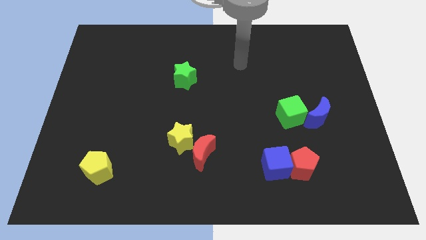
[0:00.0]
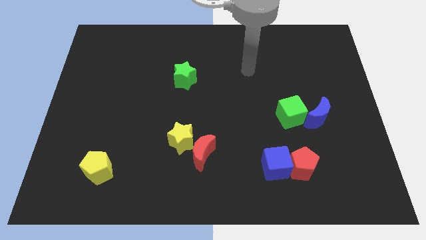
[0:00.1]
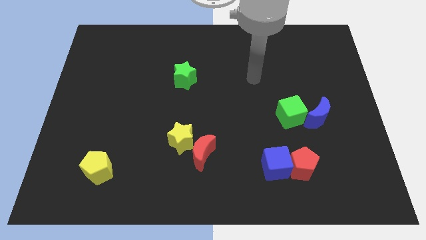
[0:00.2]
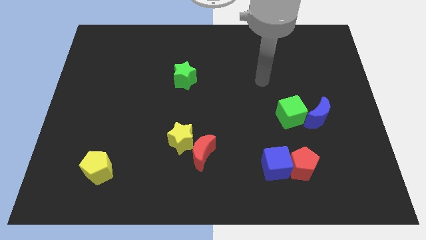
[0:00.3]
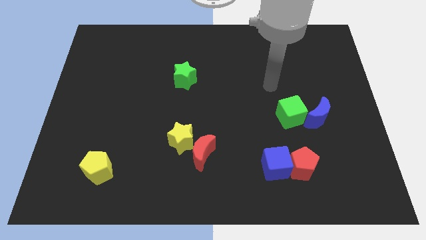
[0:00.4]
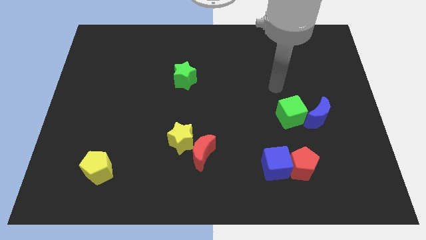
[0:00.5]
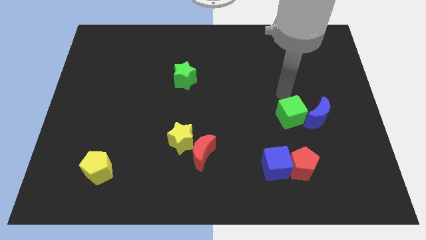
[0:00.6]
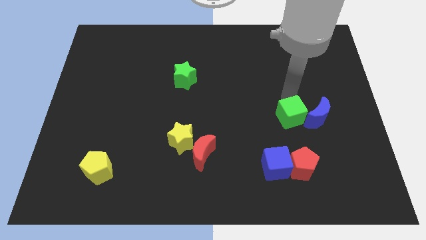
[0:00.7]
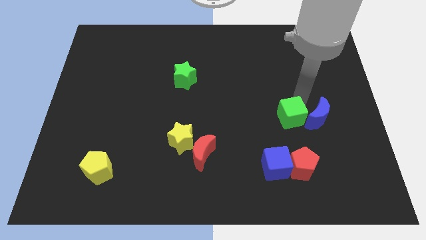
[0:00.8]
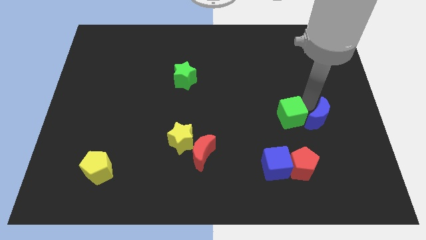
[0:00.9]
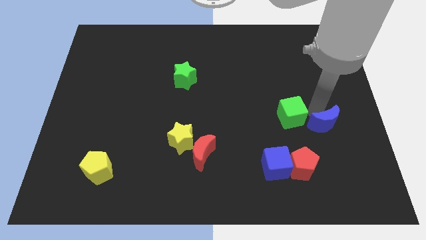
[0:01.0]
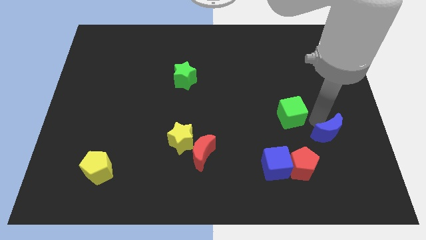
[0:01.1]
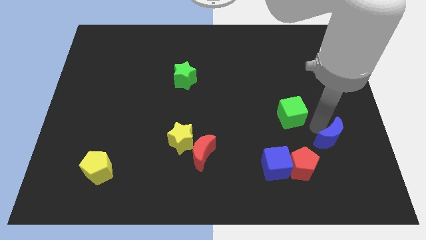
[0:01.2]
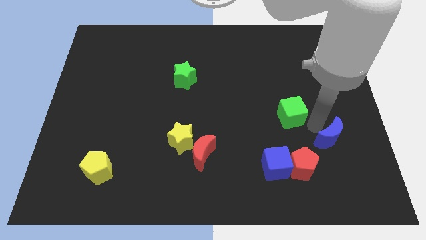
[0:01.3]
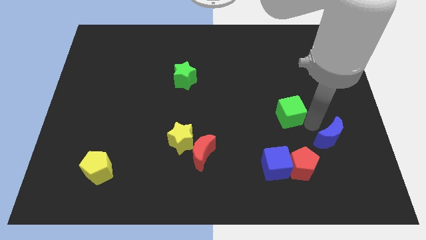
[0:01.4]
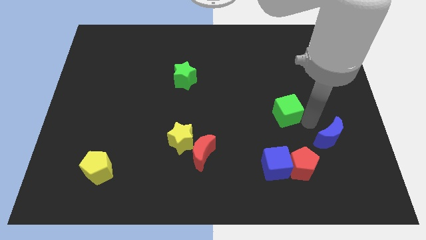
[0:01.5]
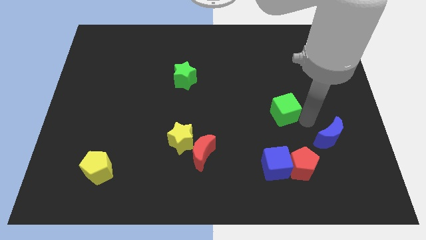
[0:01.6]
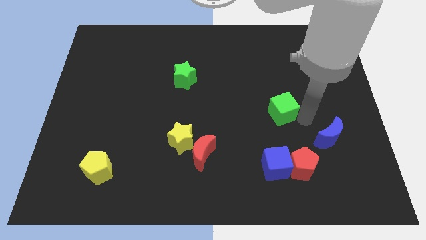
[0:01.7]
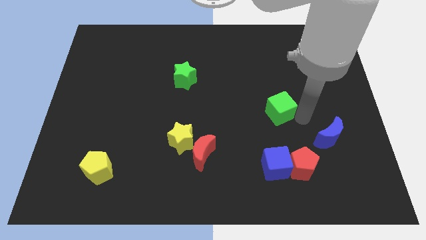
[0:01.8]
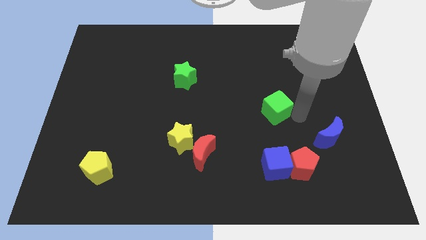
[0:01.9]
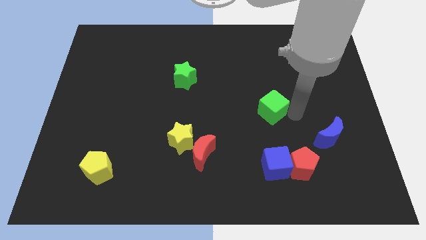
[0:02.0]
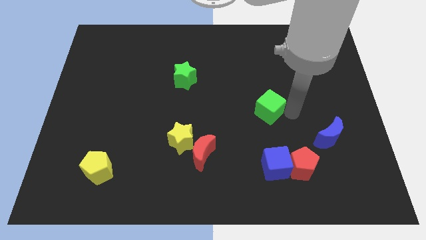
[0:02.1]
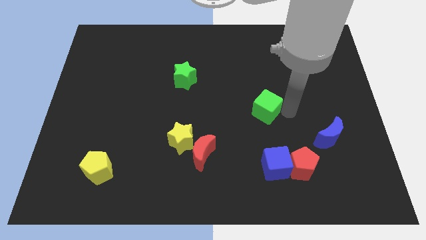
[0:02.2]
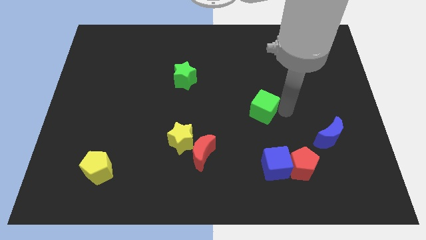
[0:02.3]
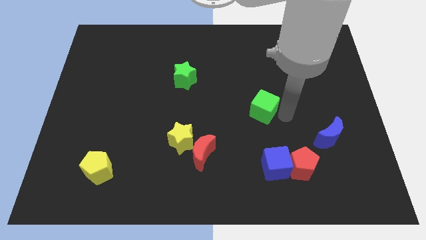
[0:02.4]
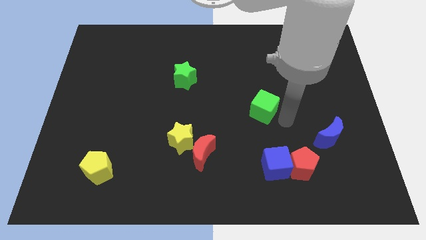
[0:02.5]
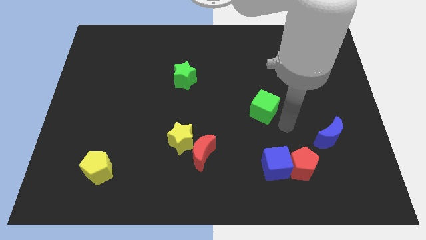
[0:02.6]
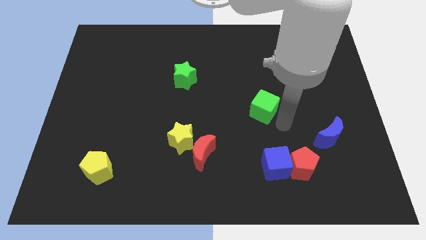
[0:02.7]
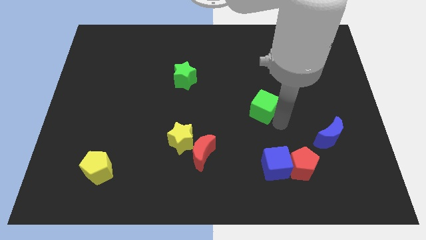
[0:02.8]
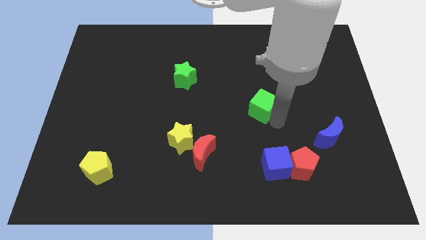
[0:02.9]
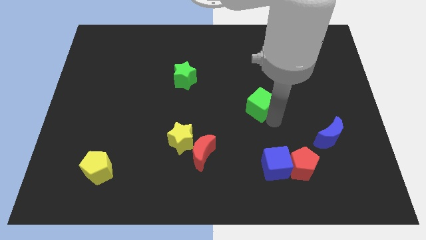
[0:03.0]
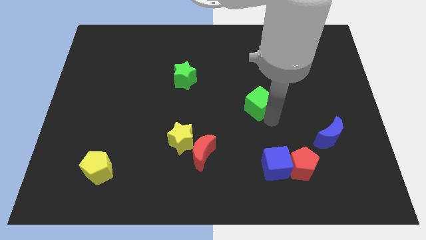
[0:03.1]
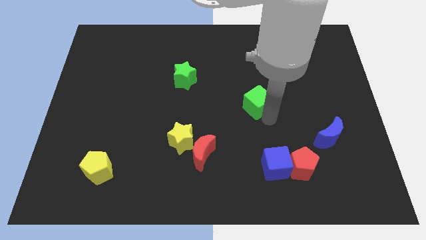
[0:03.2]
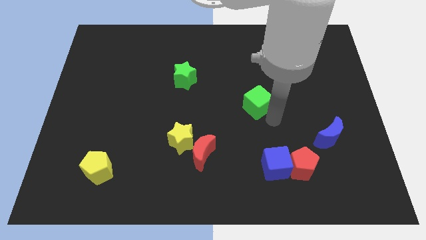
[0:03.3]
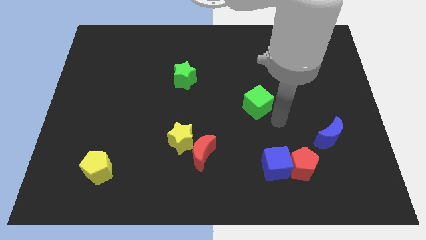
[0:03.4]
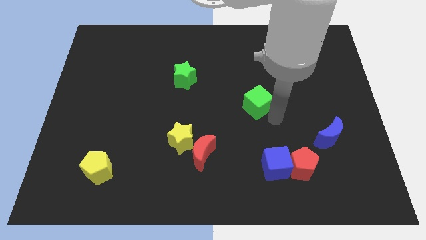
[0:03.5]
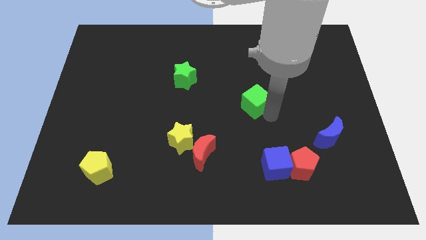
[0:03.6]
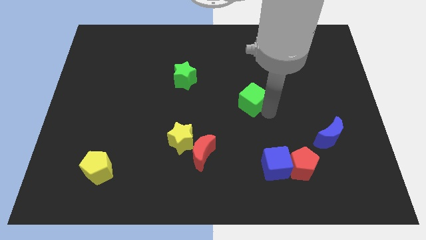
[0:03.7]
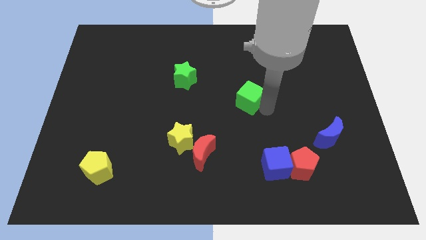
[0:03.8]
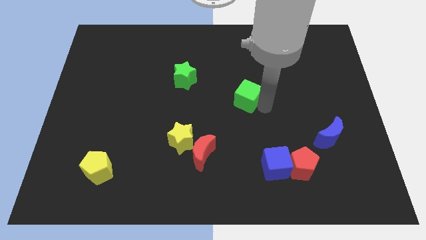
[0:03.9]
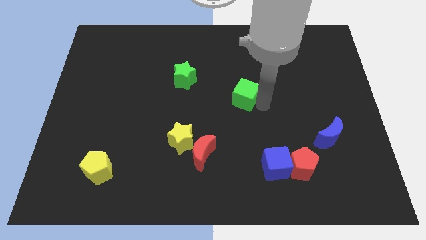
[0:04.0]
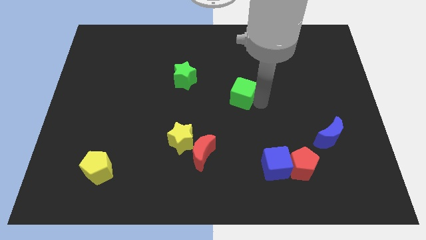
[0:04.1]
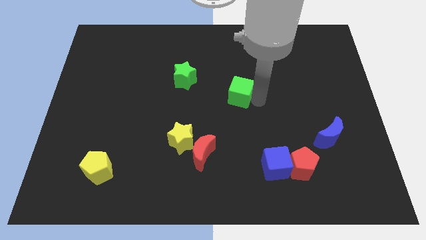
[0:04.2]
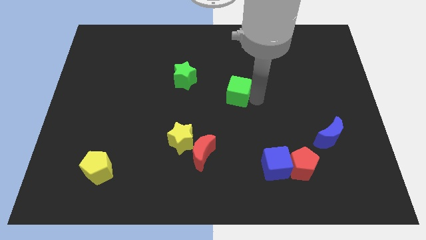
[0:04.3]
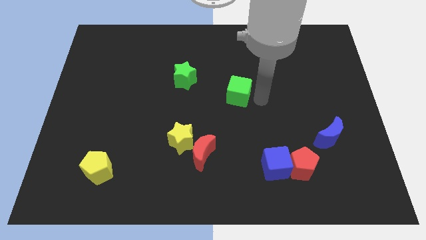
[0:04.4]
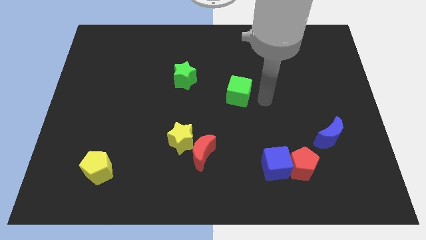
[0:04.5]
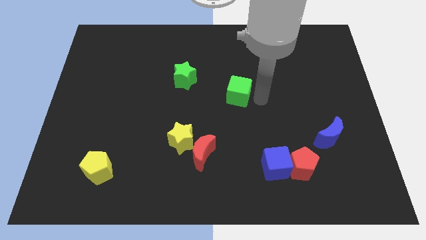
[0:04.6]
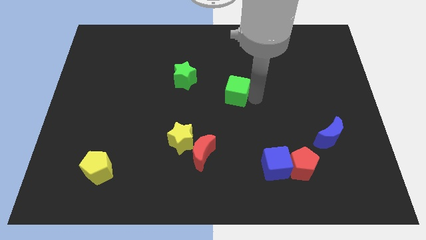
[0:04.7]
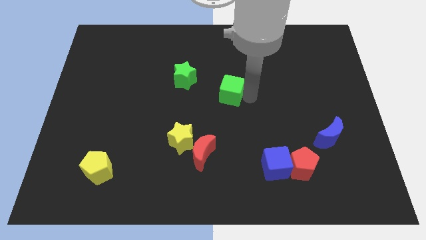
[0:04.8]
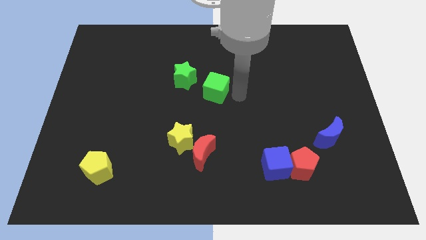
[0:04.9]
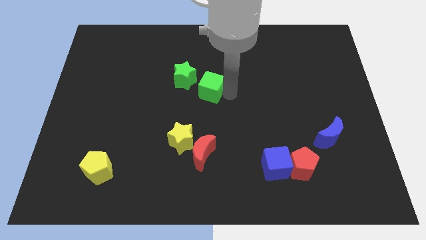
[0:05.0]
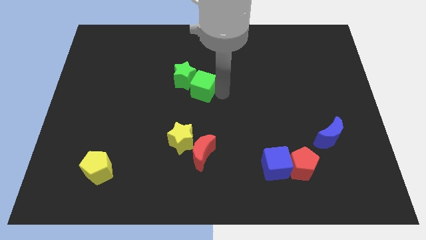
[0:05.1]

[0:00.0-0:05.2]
put the green cube to the green star

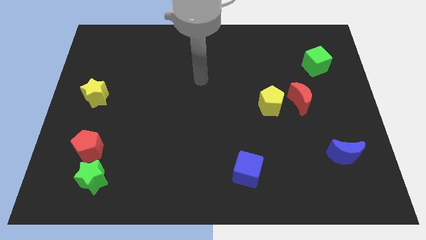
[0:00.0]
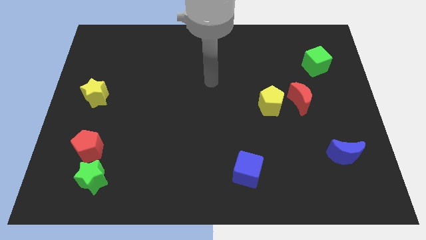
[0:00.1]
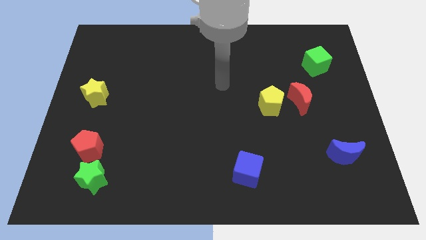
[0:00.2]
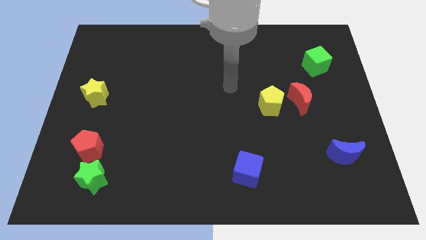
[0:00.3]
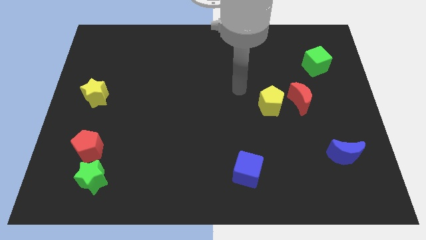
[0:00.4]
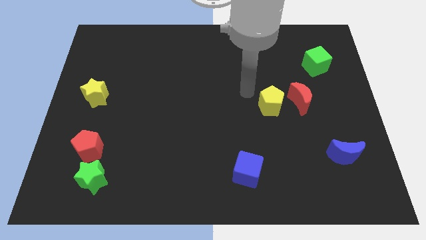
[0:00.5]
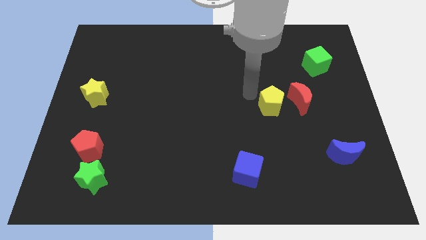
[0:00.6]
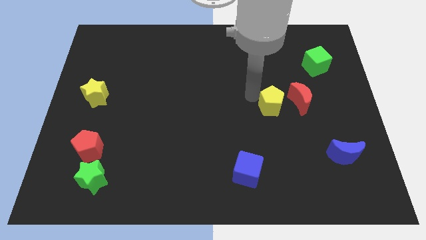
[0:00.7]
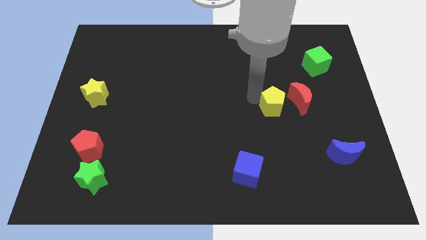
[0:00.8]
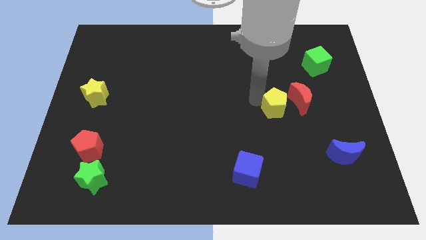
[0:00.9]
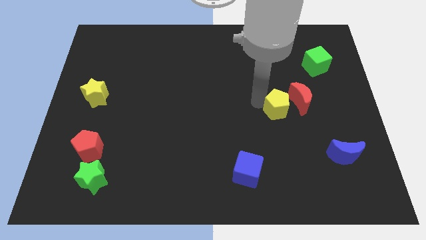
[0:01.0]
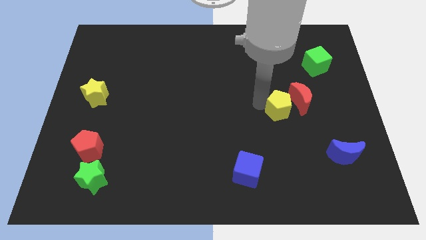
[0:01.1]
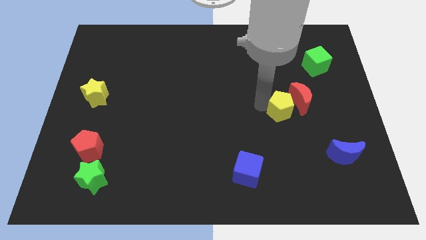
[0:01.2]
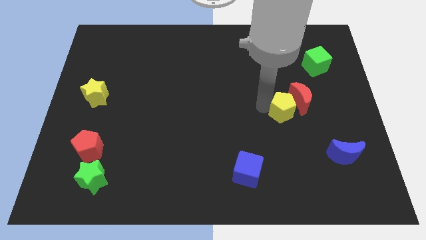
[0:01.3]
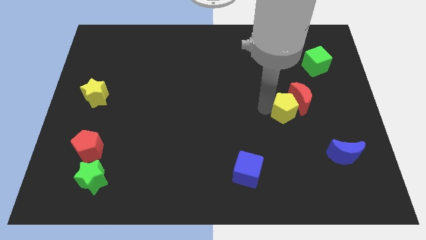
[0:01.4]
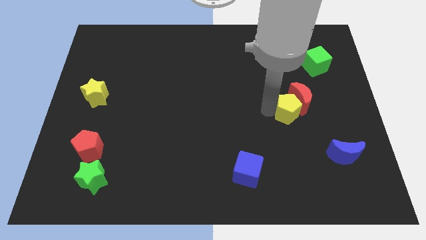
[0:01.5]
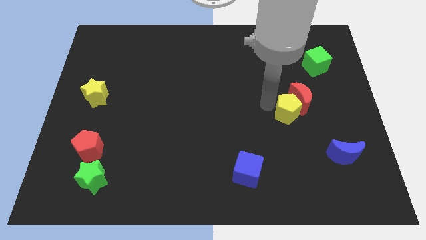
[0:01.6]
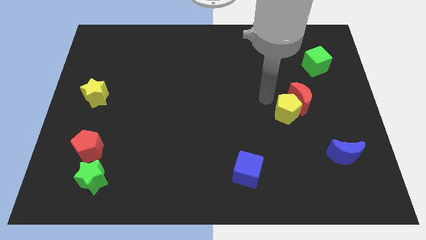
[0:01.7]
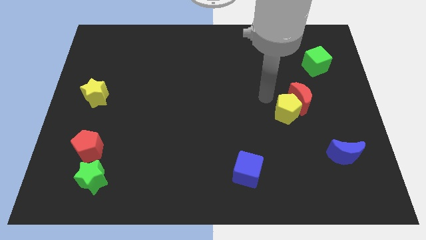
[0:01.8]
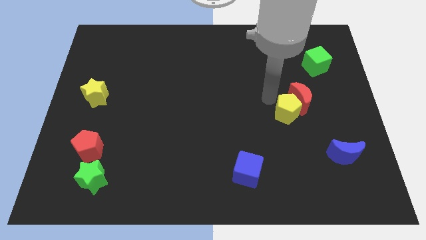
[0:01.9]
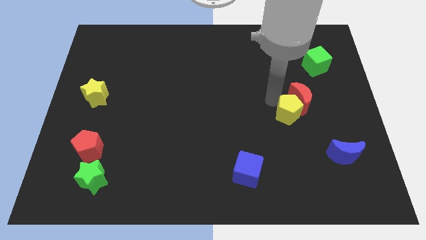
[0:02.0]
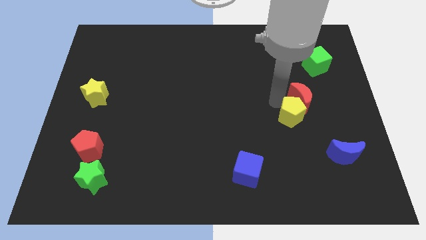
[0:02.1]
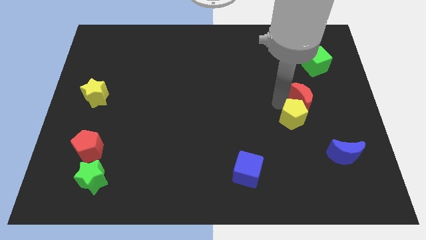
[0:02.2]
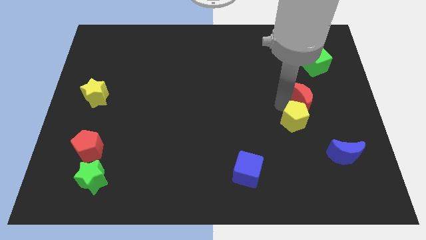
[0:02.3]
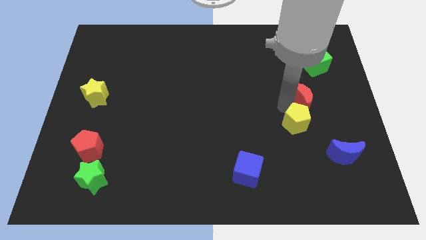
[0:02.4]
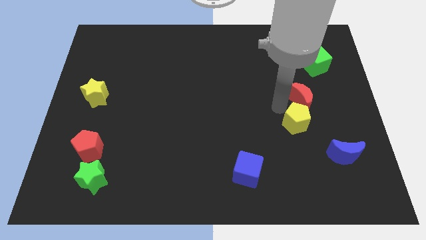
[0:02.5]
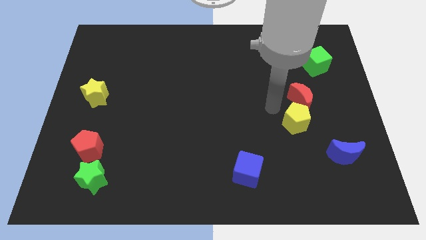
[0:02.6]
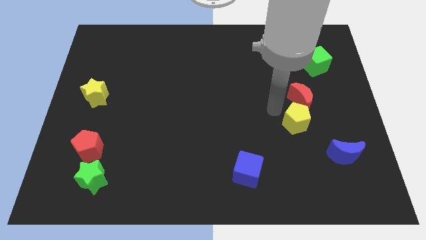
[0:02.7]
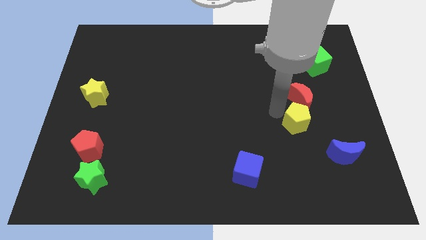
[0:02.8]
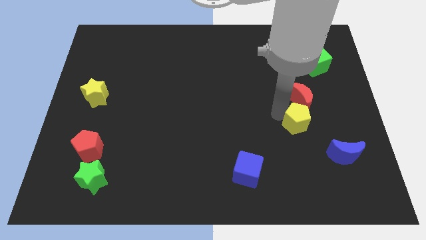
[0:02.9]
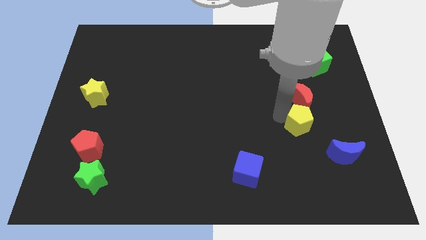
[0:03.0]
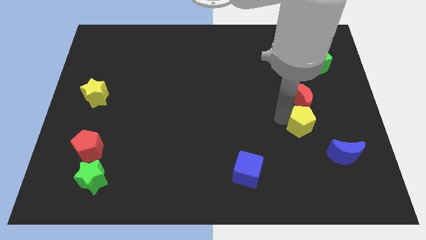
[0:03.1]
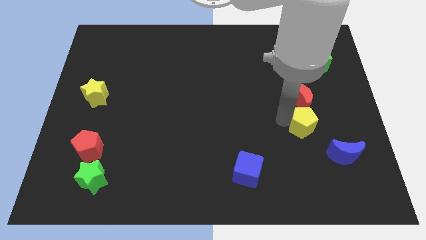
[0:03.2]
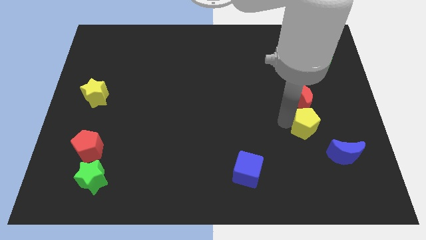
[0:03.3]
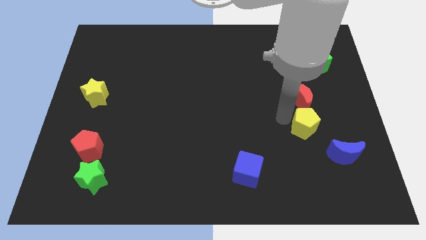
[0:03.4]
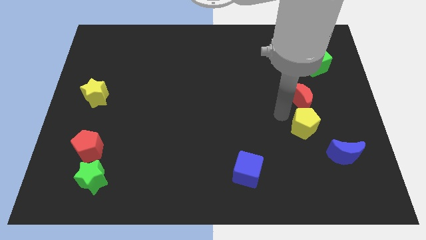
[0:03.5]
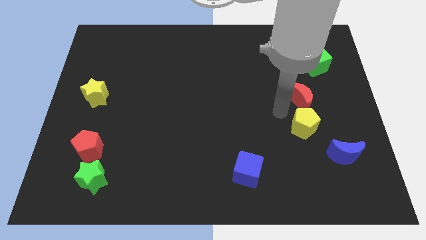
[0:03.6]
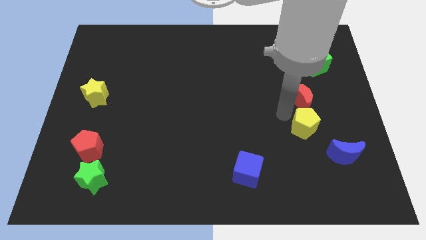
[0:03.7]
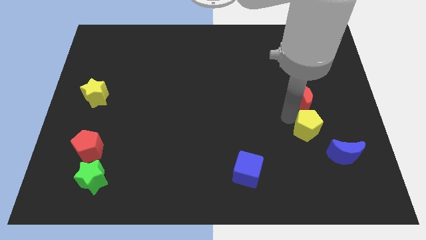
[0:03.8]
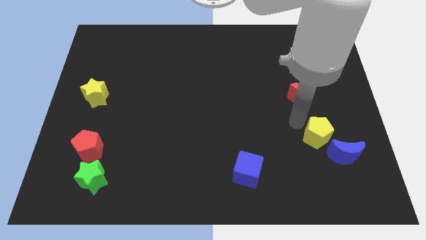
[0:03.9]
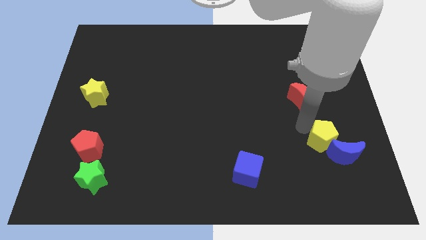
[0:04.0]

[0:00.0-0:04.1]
slide the yellow pentagon next to the blue moon
